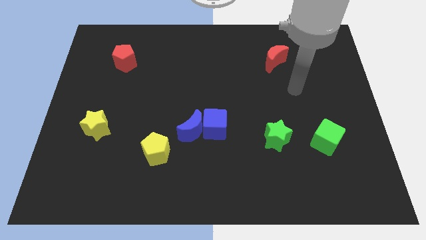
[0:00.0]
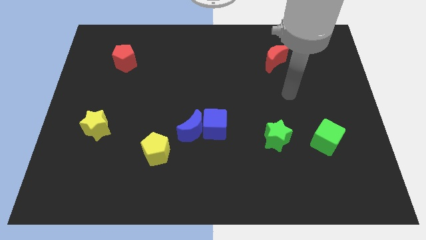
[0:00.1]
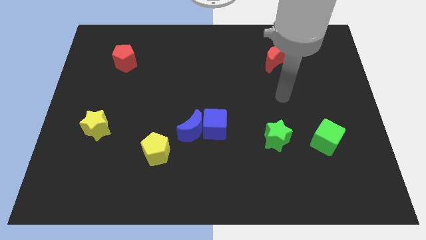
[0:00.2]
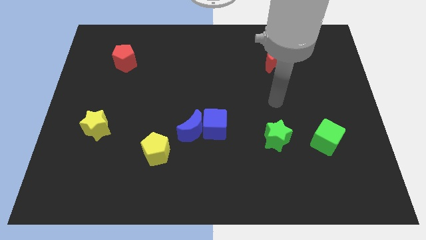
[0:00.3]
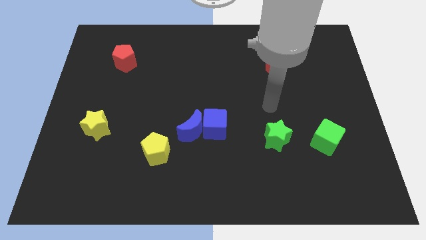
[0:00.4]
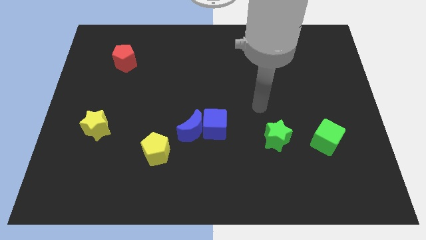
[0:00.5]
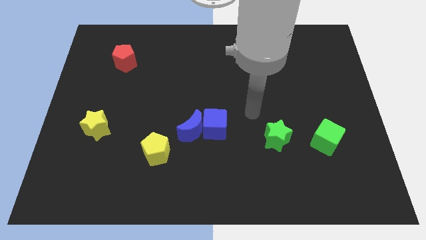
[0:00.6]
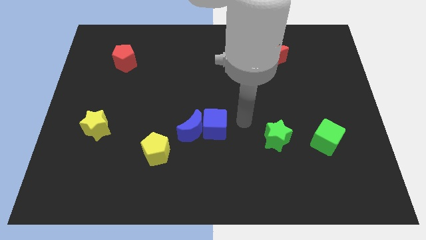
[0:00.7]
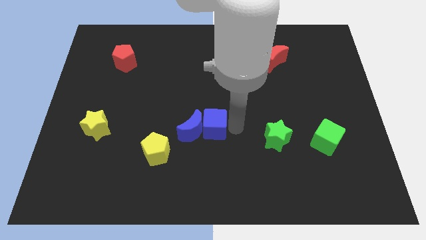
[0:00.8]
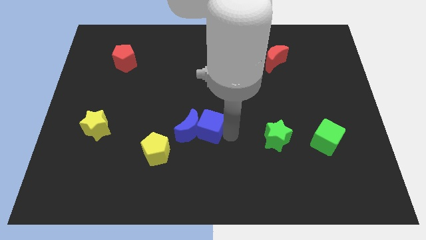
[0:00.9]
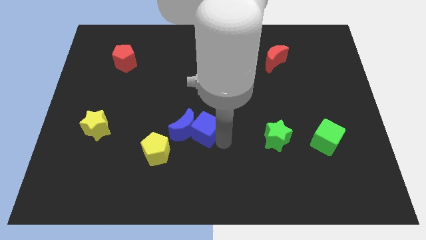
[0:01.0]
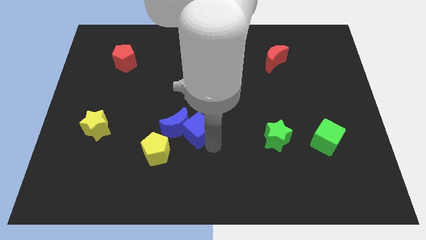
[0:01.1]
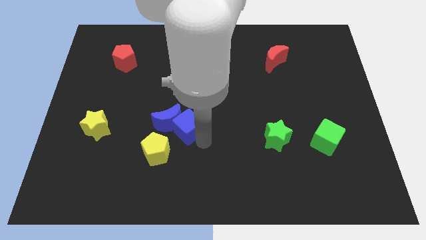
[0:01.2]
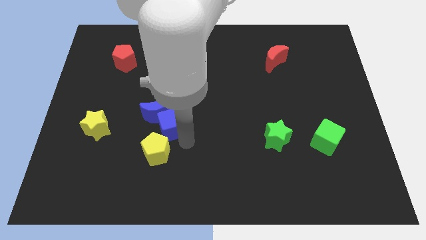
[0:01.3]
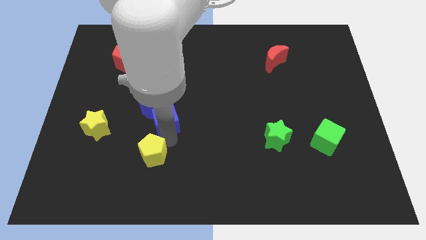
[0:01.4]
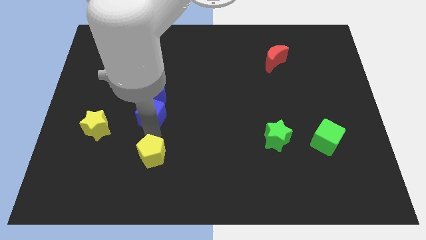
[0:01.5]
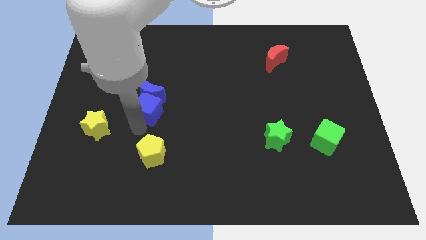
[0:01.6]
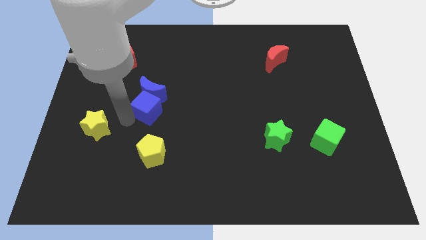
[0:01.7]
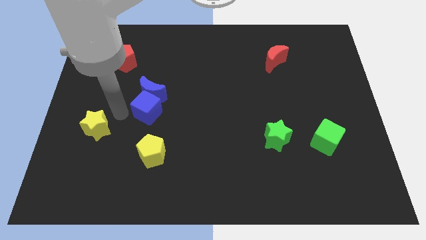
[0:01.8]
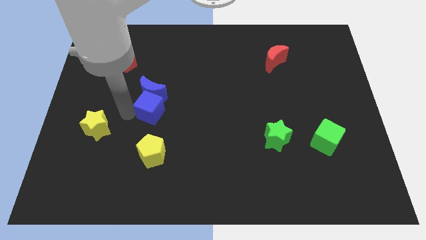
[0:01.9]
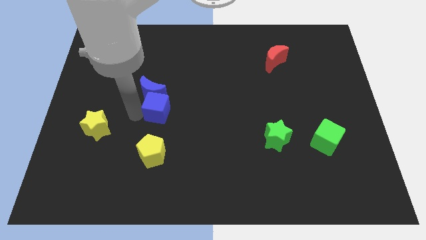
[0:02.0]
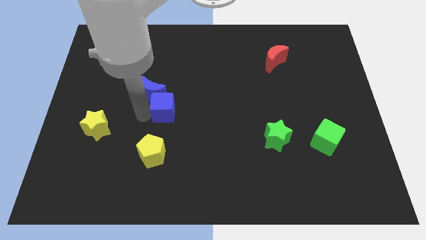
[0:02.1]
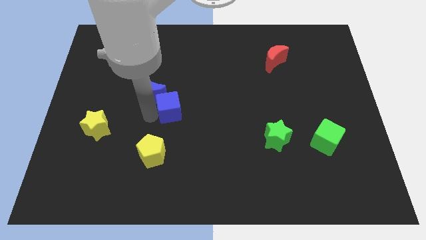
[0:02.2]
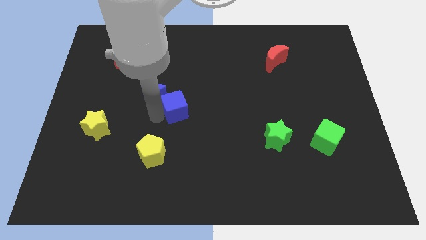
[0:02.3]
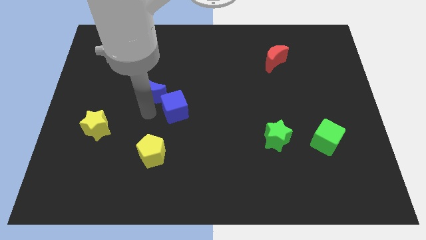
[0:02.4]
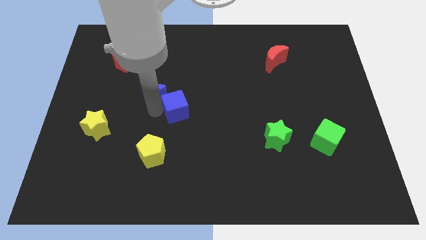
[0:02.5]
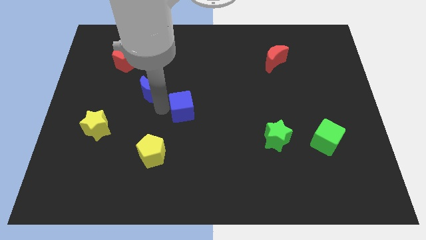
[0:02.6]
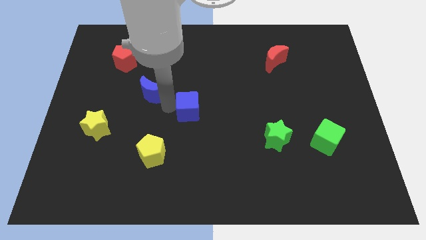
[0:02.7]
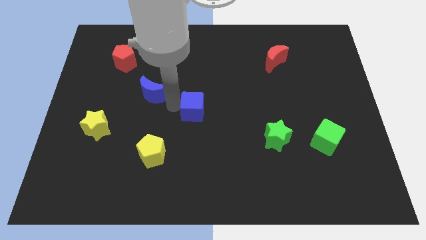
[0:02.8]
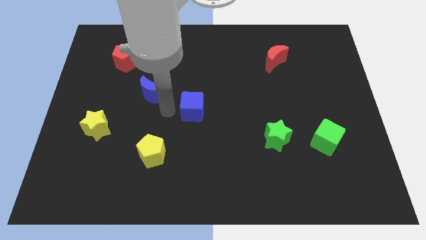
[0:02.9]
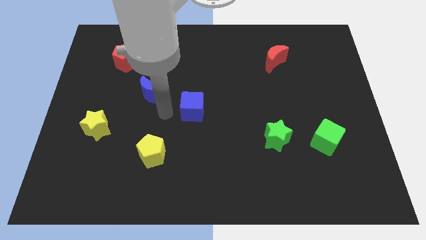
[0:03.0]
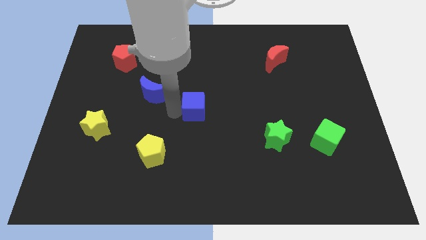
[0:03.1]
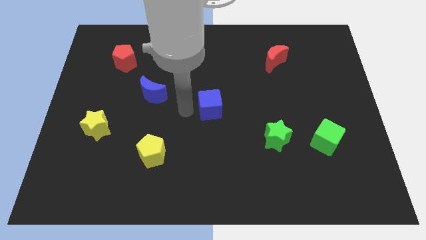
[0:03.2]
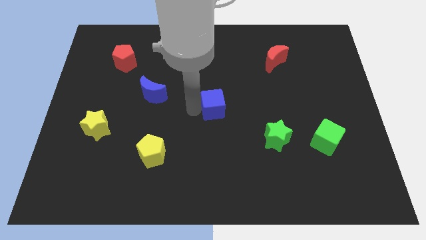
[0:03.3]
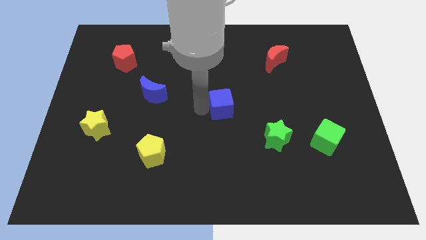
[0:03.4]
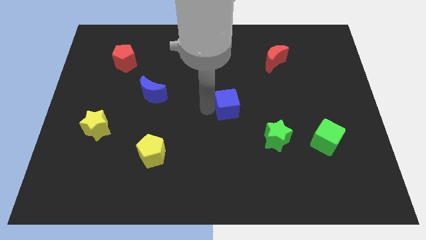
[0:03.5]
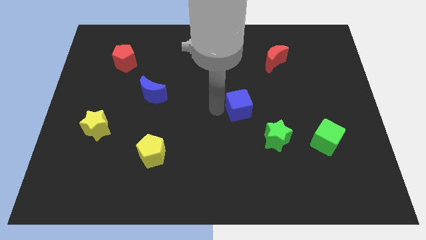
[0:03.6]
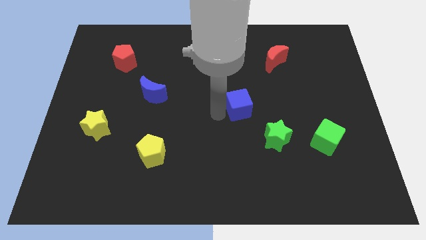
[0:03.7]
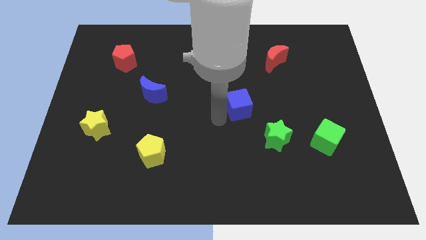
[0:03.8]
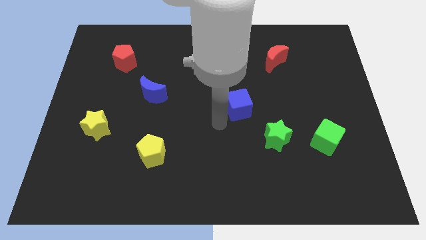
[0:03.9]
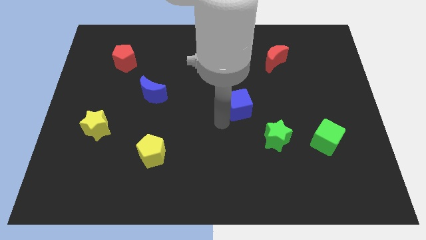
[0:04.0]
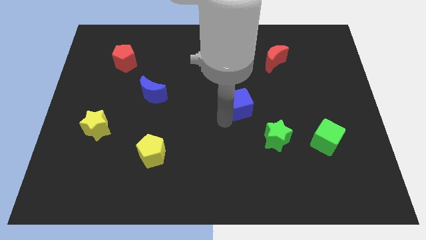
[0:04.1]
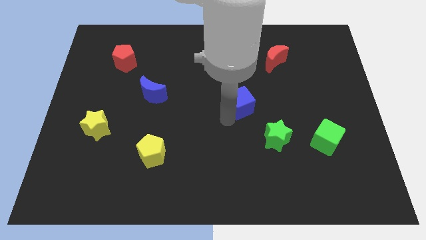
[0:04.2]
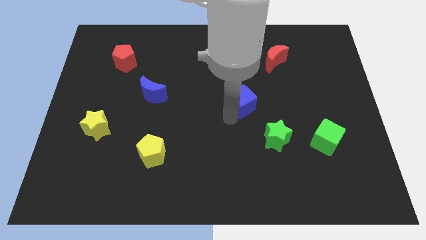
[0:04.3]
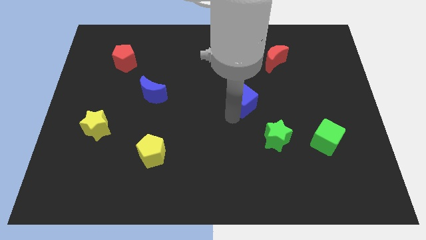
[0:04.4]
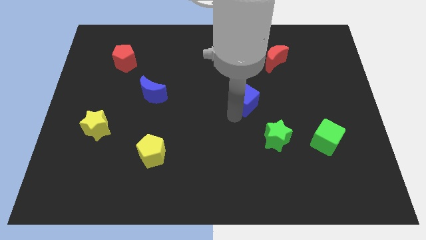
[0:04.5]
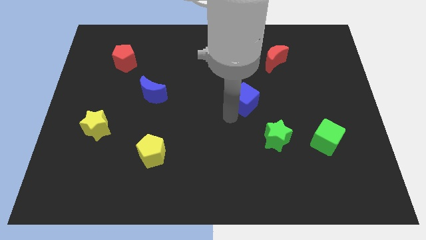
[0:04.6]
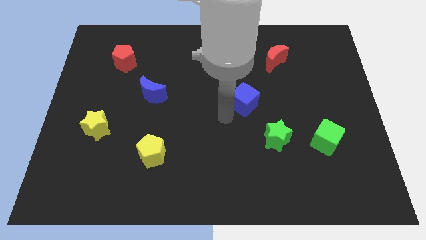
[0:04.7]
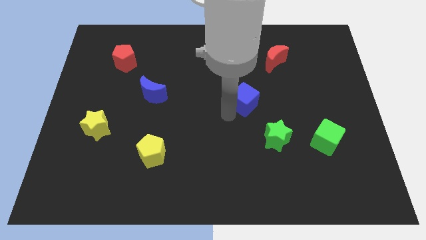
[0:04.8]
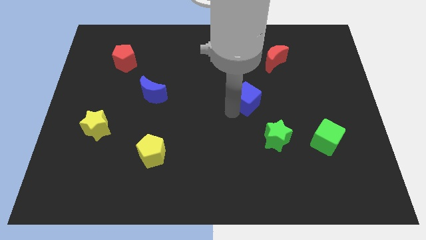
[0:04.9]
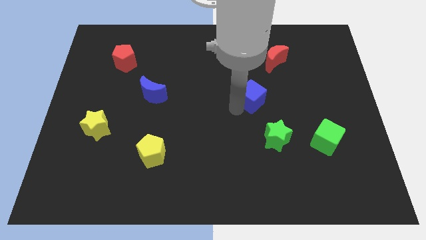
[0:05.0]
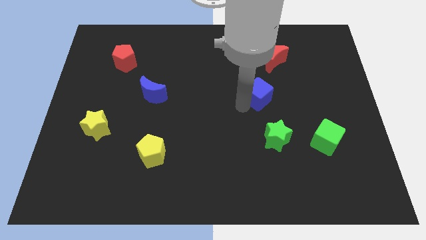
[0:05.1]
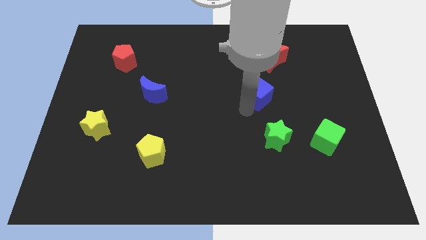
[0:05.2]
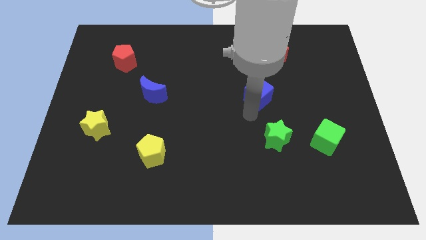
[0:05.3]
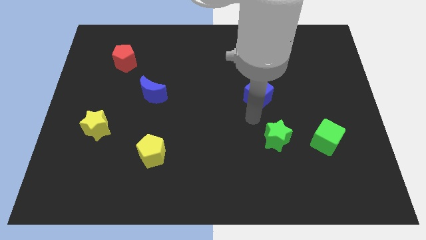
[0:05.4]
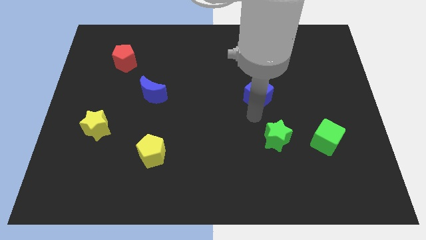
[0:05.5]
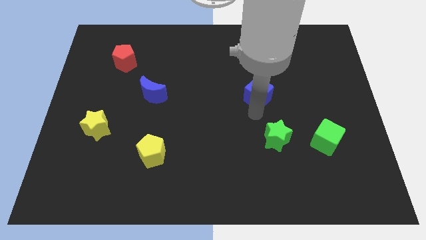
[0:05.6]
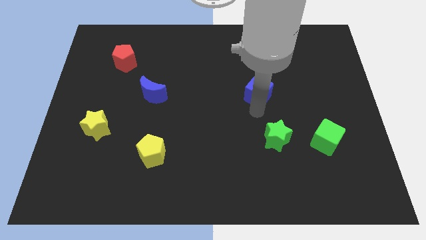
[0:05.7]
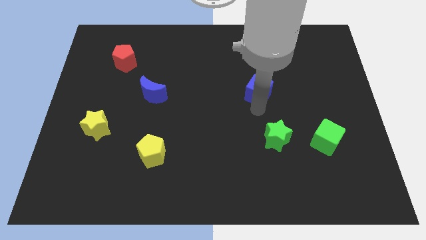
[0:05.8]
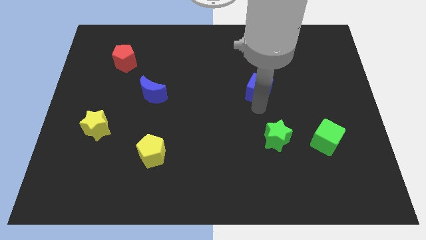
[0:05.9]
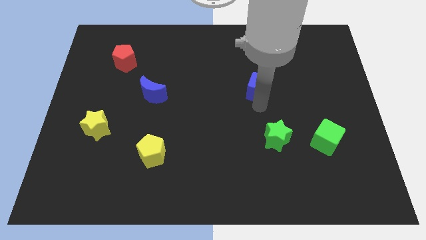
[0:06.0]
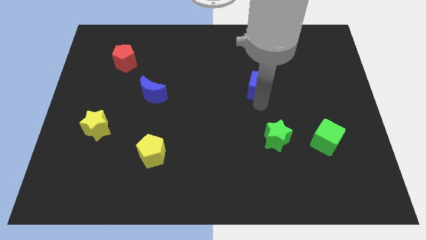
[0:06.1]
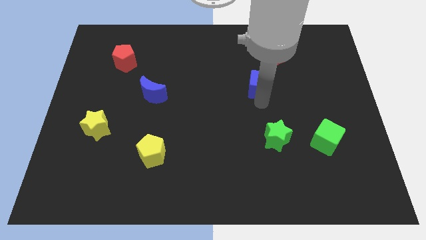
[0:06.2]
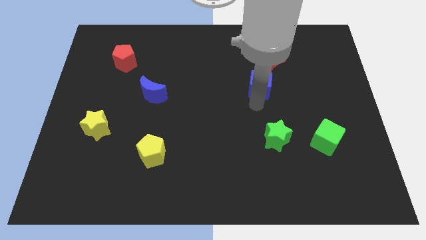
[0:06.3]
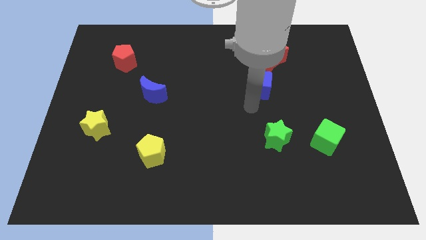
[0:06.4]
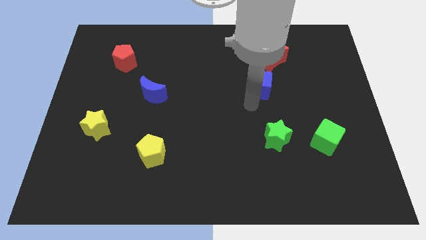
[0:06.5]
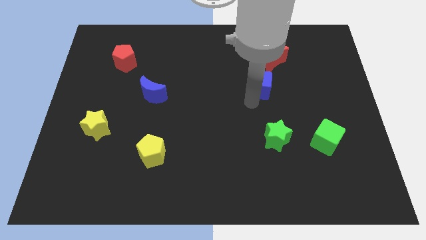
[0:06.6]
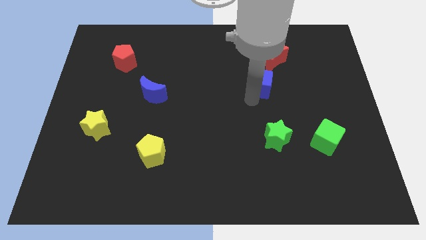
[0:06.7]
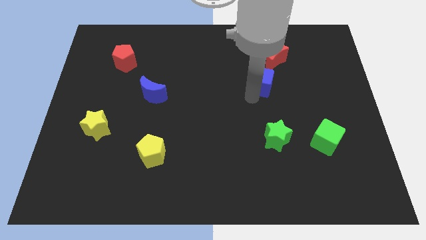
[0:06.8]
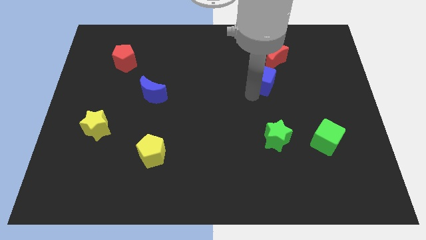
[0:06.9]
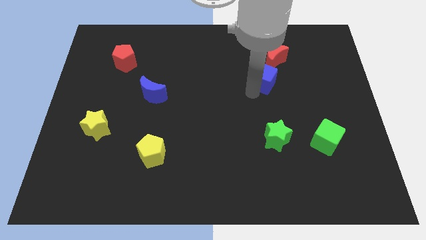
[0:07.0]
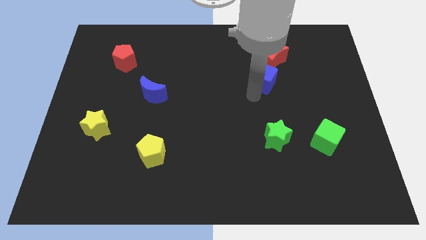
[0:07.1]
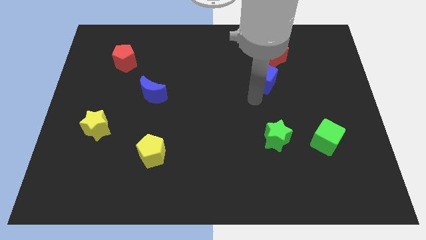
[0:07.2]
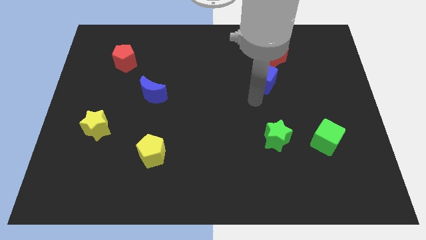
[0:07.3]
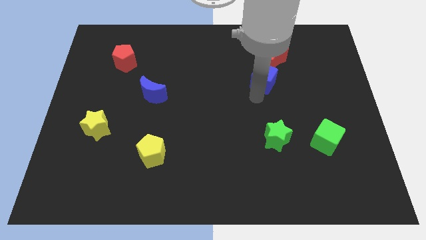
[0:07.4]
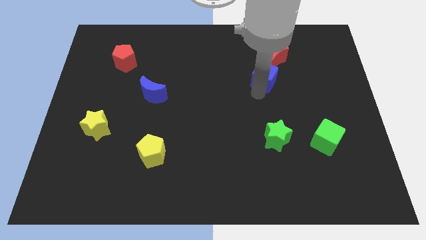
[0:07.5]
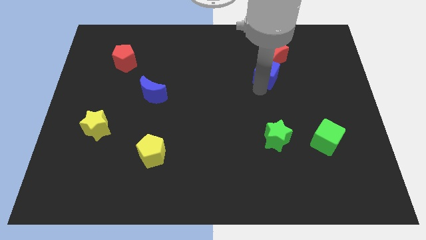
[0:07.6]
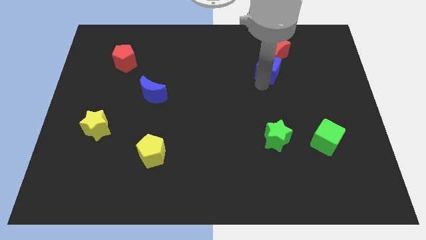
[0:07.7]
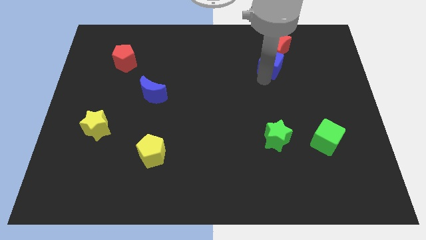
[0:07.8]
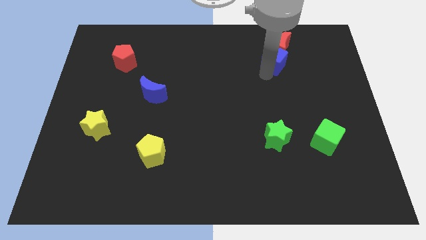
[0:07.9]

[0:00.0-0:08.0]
slide the blue cube next to the red moon

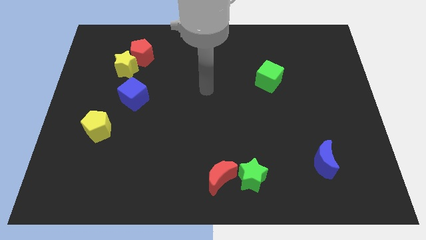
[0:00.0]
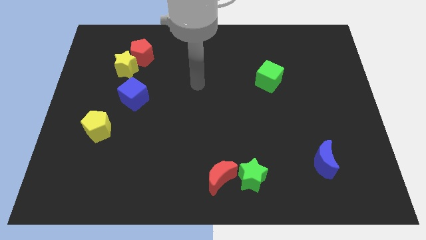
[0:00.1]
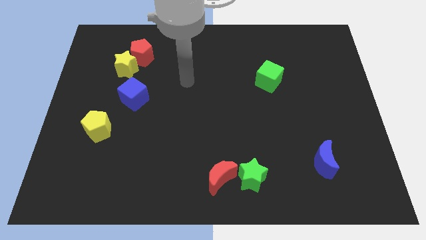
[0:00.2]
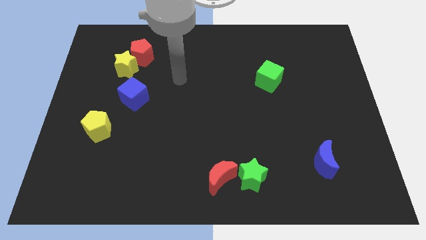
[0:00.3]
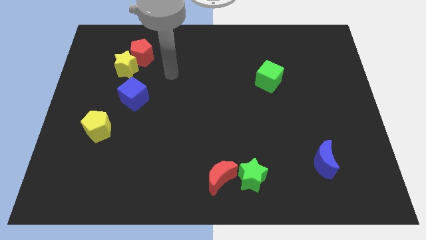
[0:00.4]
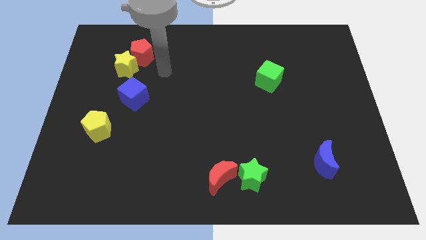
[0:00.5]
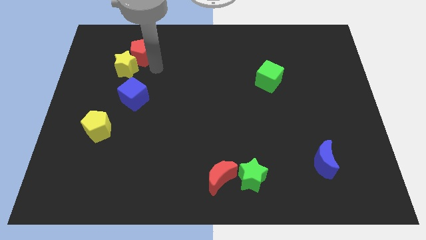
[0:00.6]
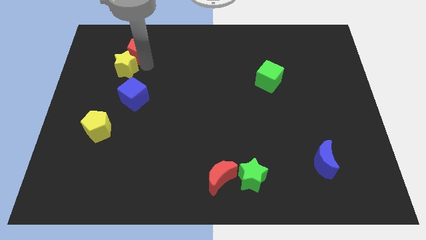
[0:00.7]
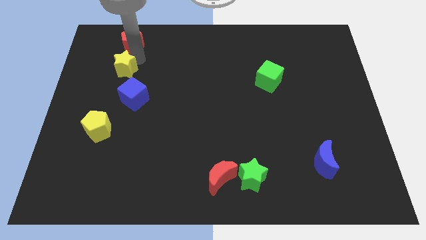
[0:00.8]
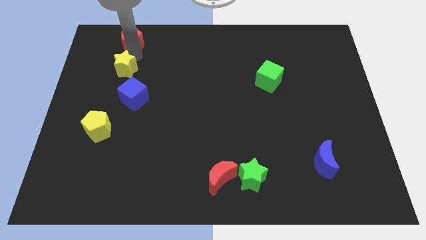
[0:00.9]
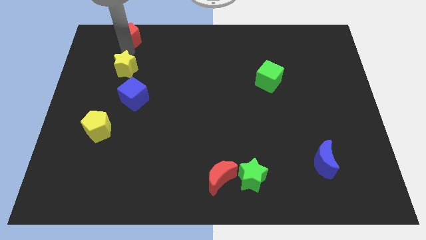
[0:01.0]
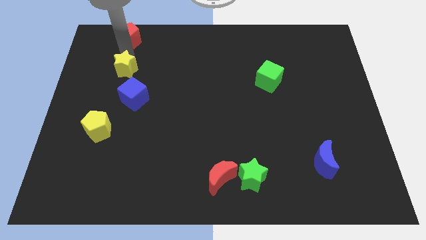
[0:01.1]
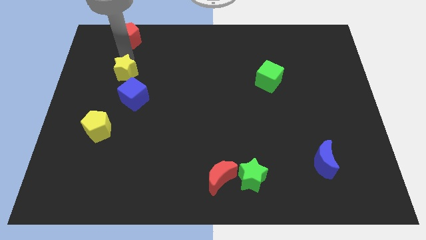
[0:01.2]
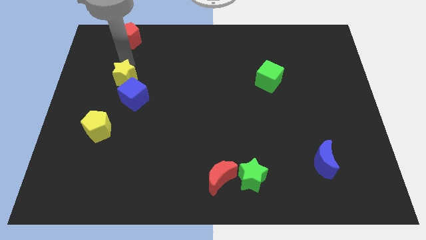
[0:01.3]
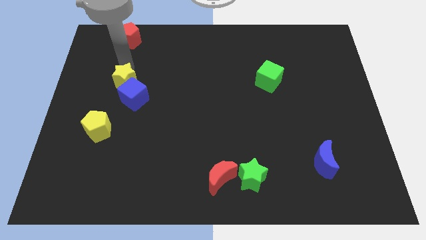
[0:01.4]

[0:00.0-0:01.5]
put the yellow star close to the blue cube
